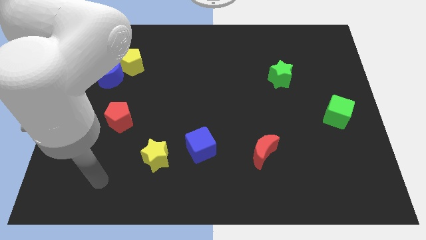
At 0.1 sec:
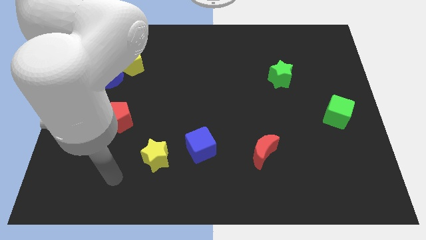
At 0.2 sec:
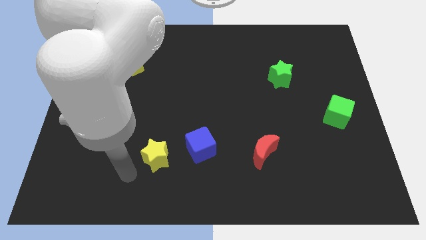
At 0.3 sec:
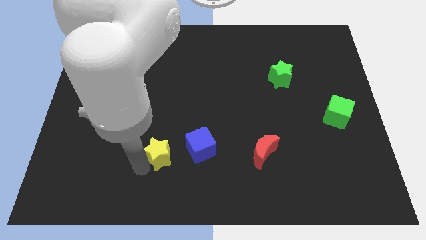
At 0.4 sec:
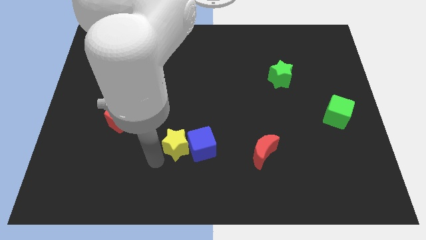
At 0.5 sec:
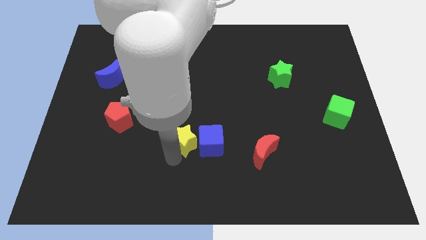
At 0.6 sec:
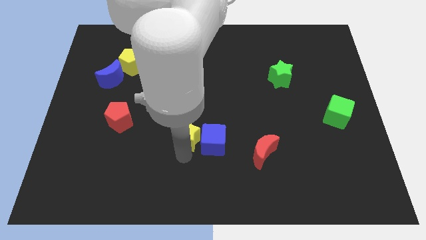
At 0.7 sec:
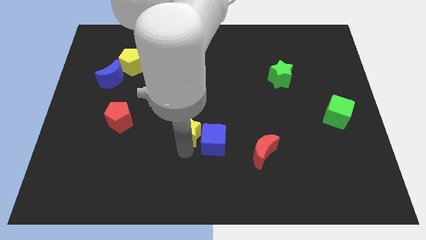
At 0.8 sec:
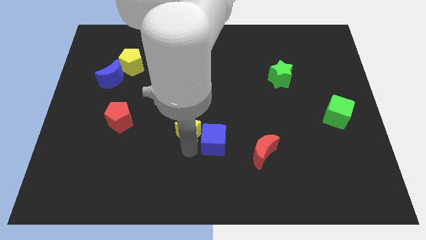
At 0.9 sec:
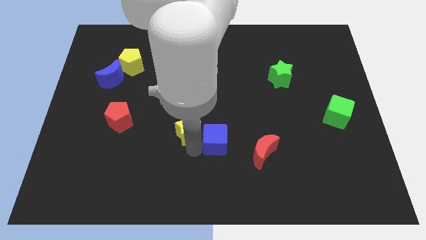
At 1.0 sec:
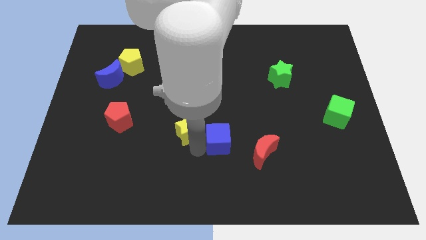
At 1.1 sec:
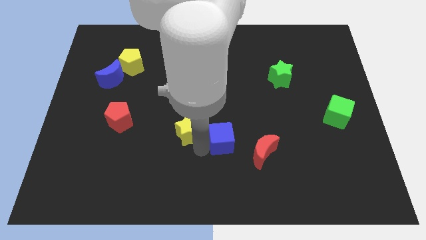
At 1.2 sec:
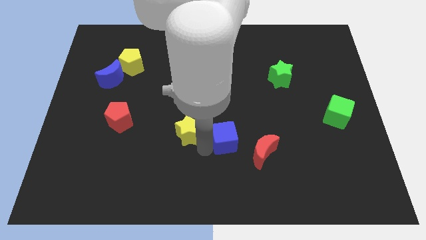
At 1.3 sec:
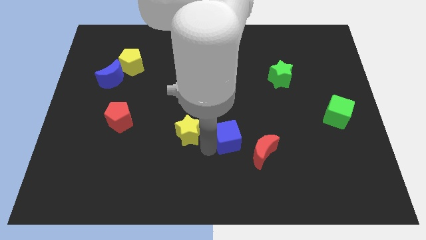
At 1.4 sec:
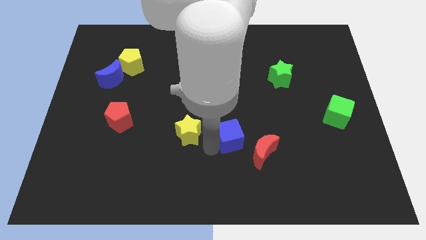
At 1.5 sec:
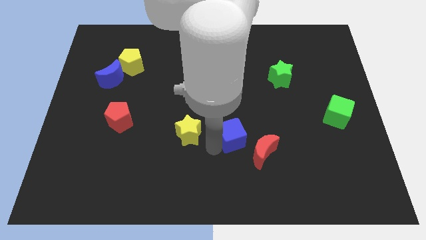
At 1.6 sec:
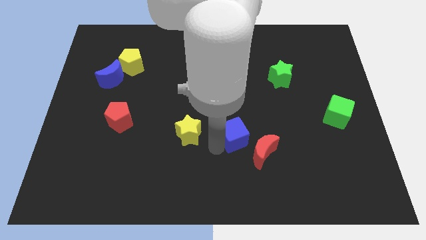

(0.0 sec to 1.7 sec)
slightly slide the blue cube to the right

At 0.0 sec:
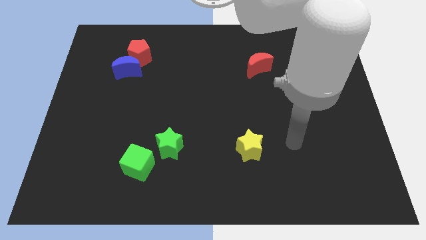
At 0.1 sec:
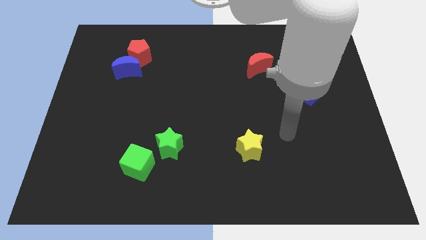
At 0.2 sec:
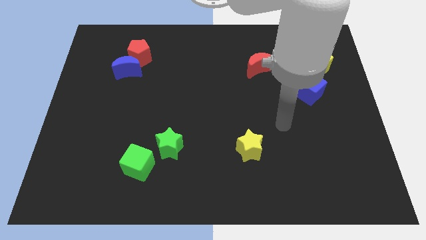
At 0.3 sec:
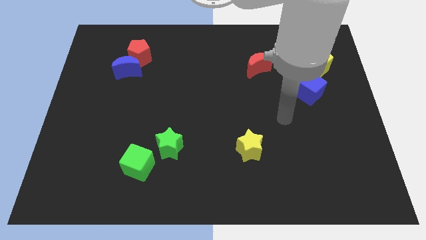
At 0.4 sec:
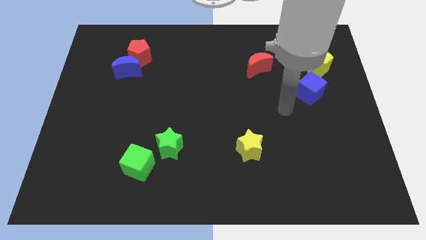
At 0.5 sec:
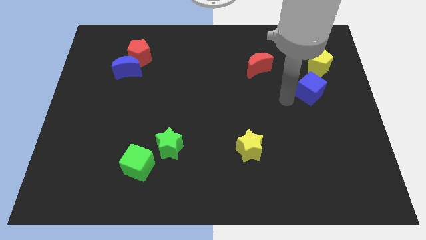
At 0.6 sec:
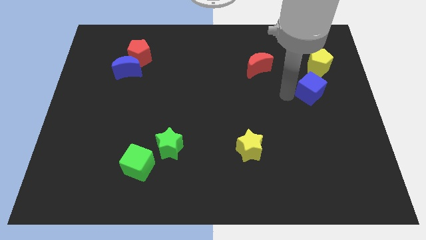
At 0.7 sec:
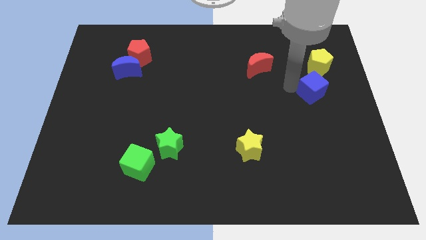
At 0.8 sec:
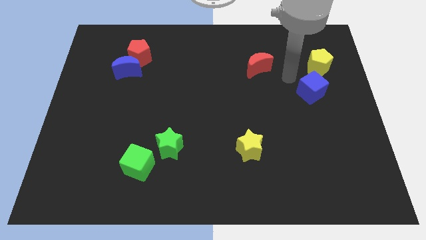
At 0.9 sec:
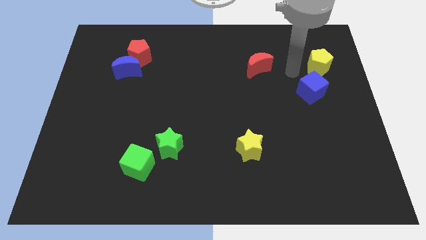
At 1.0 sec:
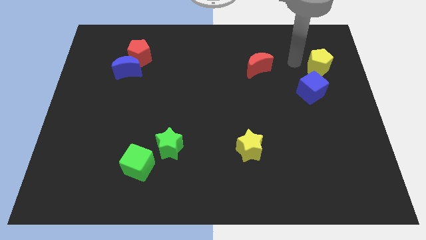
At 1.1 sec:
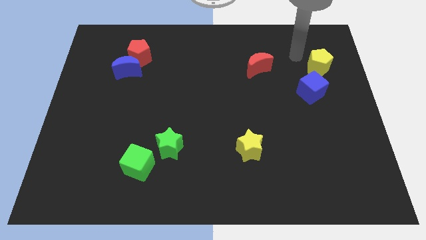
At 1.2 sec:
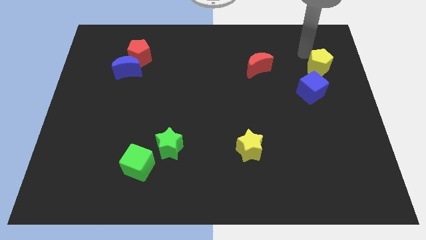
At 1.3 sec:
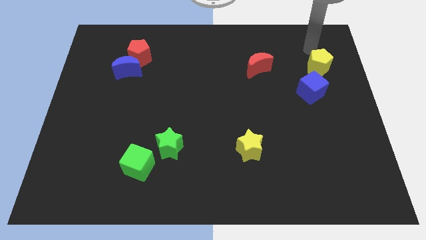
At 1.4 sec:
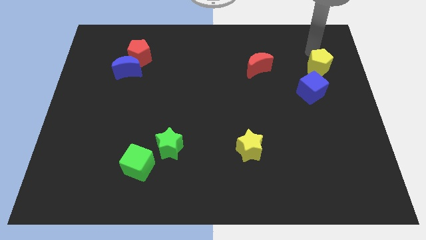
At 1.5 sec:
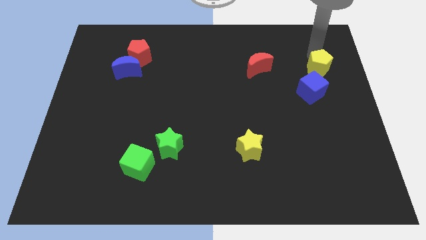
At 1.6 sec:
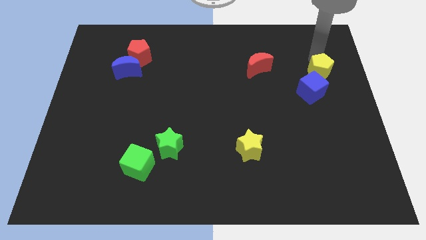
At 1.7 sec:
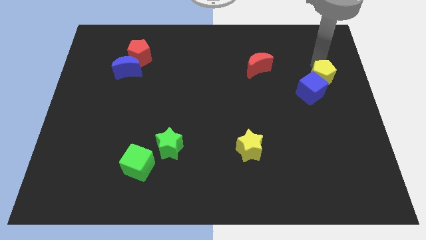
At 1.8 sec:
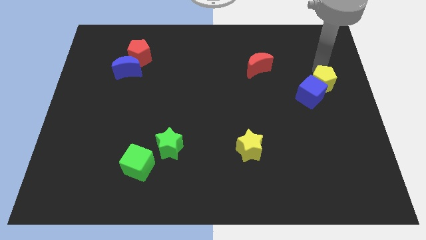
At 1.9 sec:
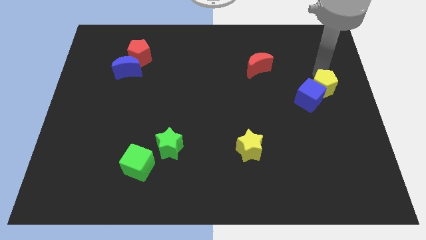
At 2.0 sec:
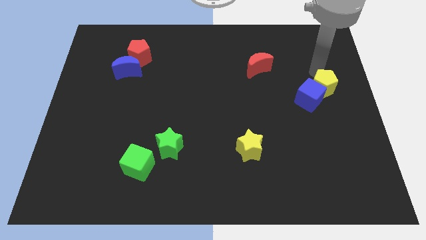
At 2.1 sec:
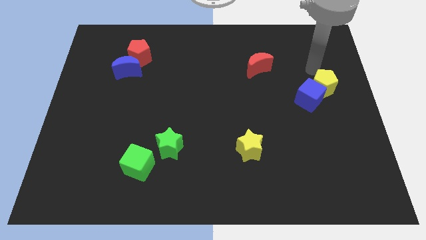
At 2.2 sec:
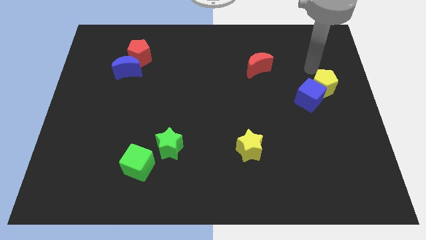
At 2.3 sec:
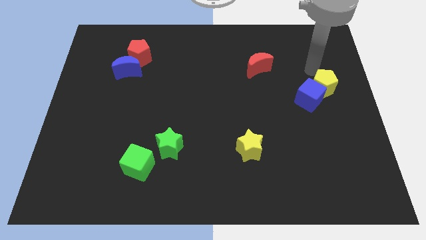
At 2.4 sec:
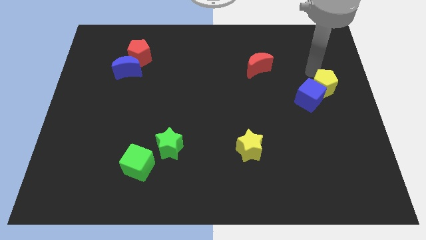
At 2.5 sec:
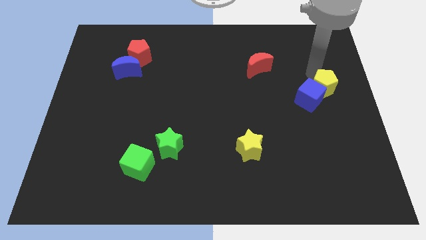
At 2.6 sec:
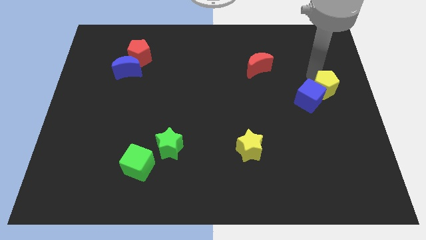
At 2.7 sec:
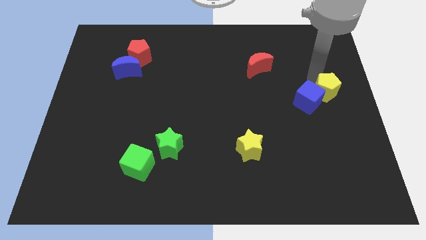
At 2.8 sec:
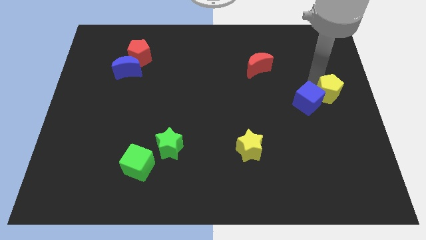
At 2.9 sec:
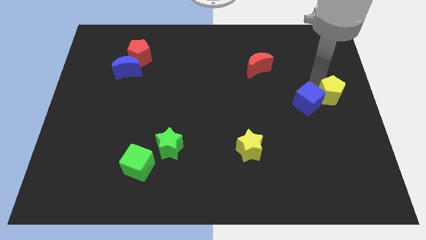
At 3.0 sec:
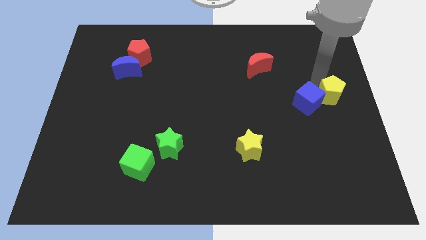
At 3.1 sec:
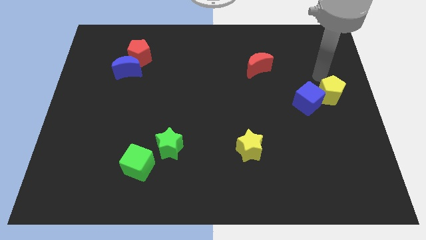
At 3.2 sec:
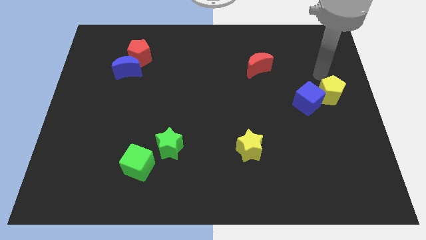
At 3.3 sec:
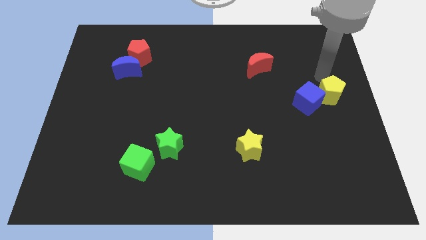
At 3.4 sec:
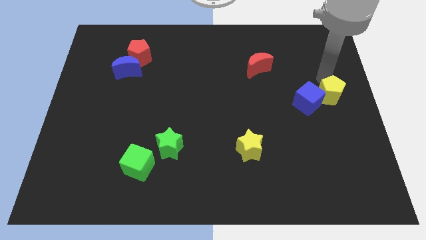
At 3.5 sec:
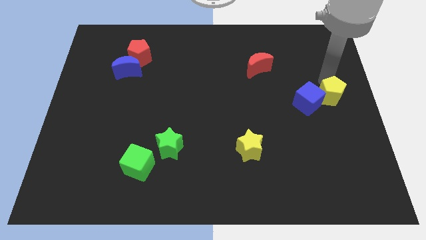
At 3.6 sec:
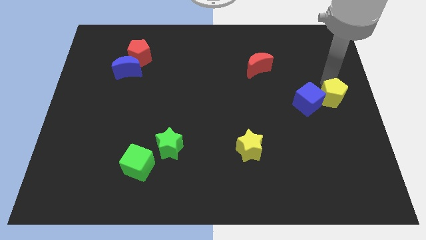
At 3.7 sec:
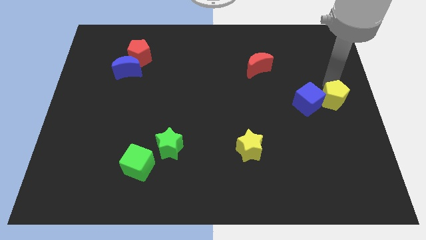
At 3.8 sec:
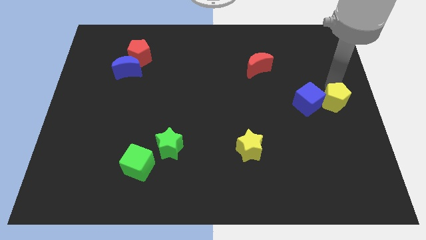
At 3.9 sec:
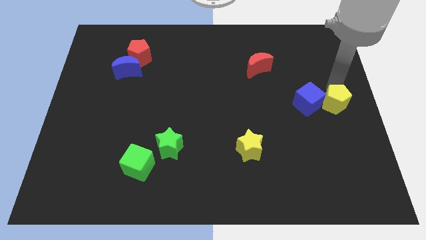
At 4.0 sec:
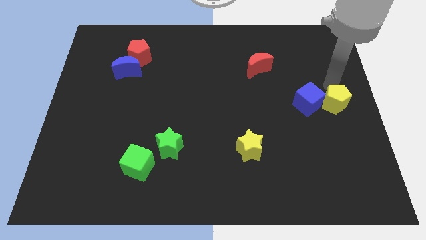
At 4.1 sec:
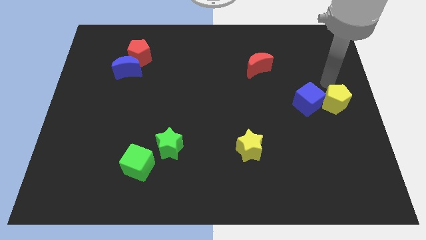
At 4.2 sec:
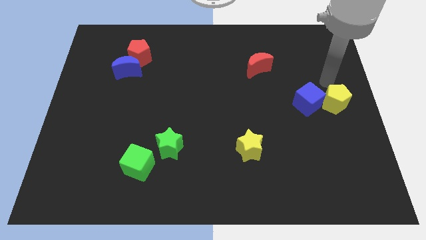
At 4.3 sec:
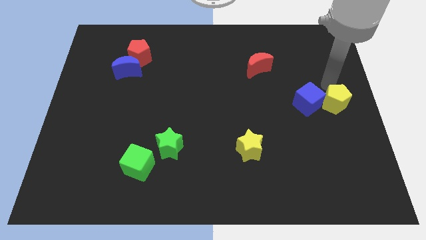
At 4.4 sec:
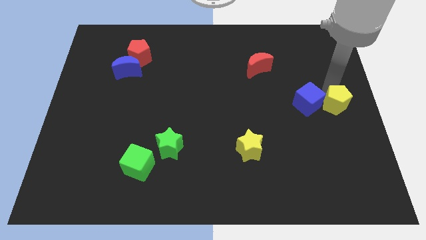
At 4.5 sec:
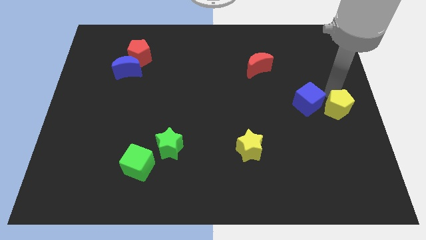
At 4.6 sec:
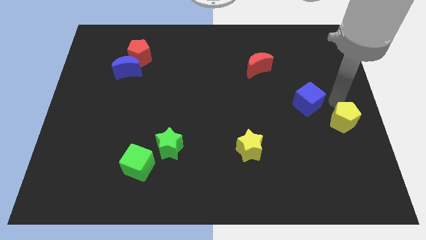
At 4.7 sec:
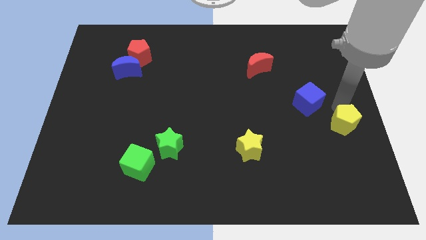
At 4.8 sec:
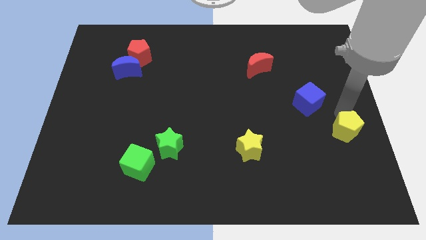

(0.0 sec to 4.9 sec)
move the yellow pentagon down

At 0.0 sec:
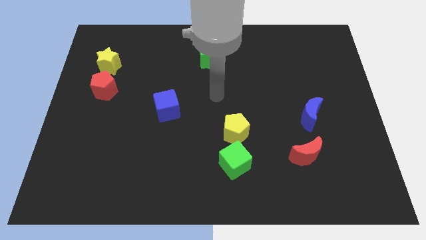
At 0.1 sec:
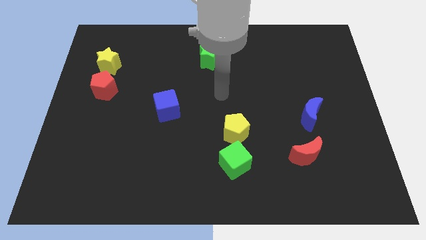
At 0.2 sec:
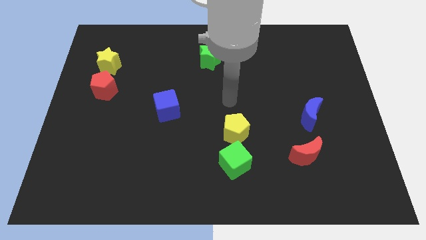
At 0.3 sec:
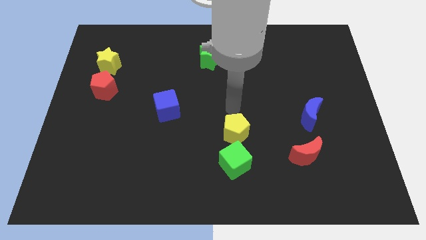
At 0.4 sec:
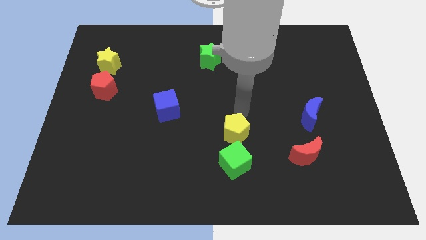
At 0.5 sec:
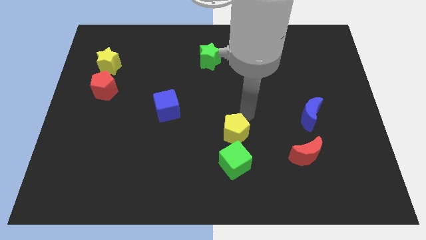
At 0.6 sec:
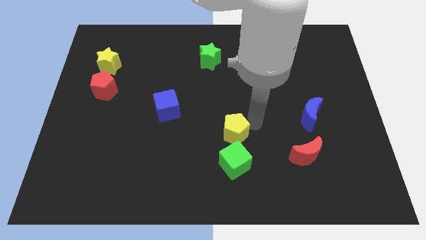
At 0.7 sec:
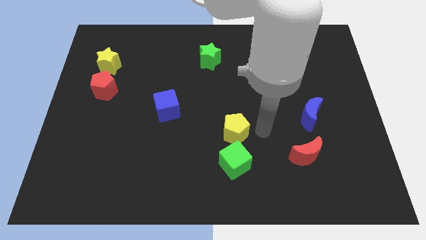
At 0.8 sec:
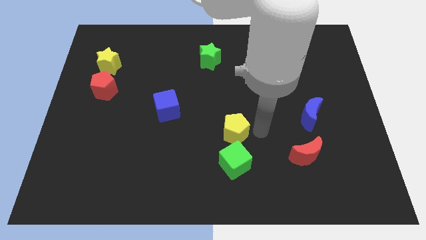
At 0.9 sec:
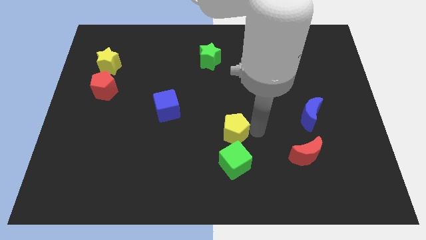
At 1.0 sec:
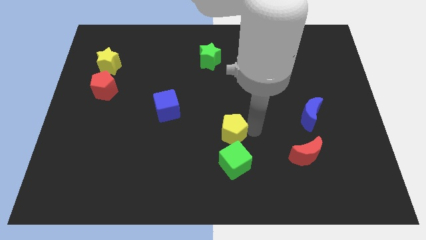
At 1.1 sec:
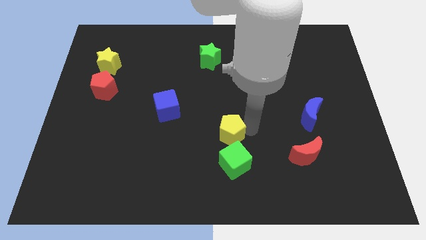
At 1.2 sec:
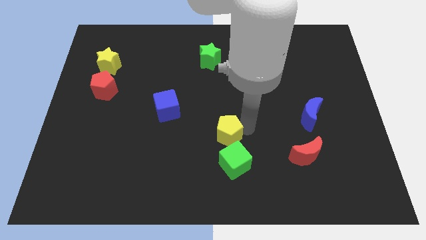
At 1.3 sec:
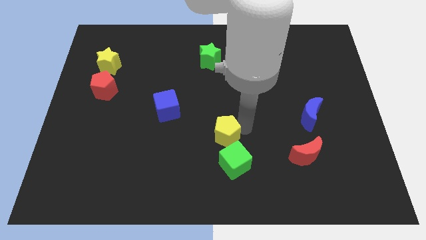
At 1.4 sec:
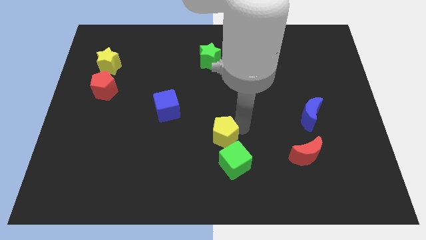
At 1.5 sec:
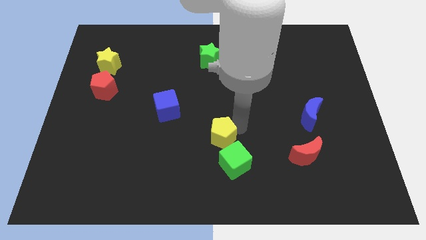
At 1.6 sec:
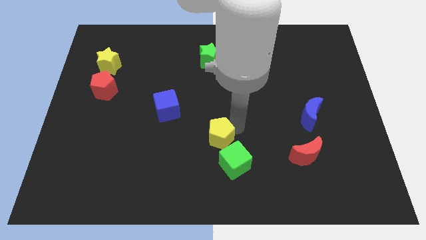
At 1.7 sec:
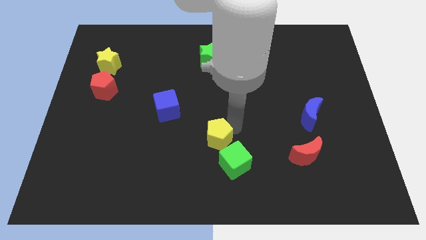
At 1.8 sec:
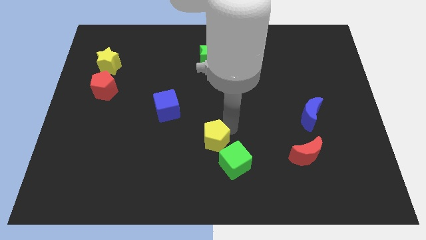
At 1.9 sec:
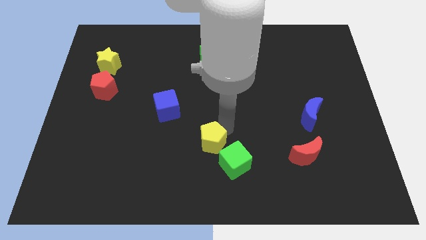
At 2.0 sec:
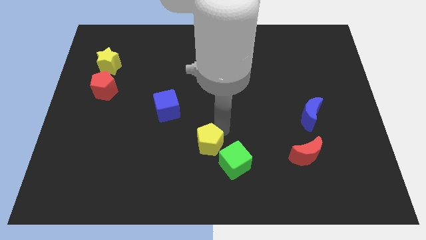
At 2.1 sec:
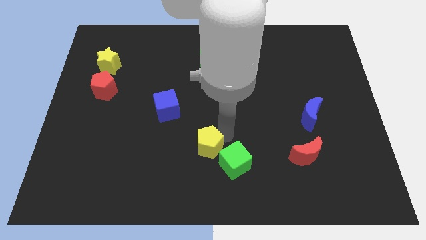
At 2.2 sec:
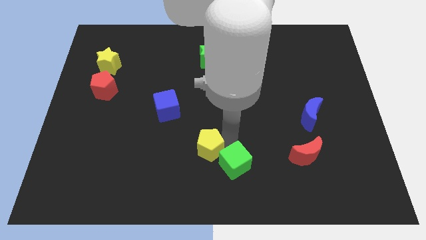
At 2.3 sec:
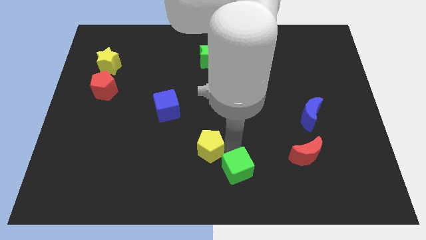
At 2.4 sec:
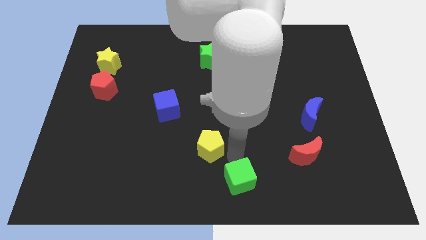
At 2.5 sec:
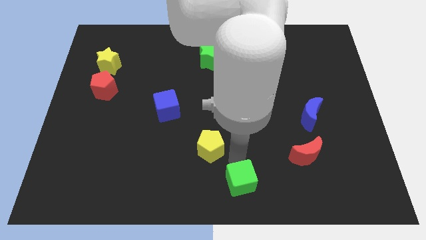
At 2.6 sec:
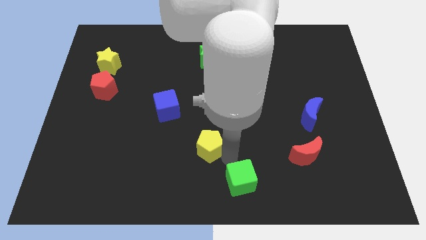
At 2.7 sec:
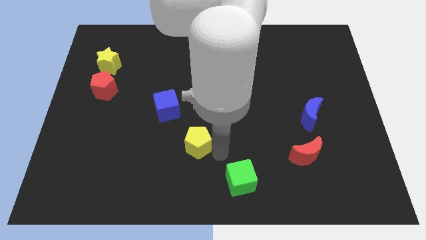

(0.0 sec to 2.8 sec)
slightly slide the yellow pentagon to the left
